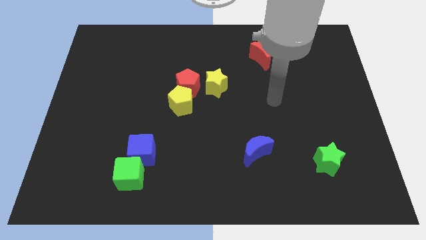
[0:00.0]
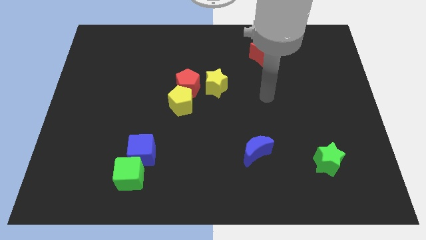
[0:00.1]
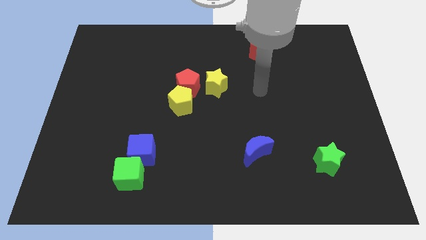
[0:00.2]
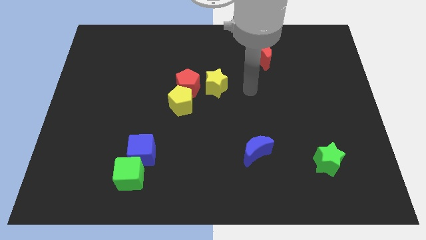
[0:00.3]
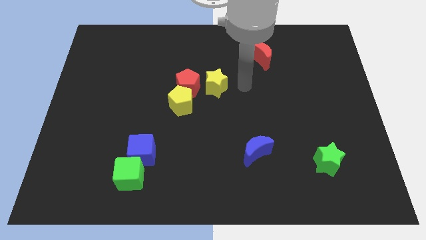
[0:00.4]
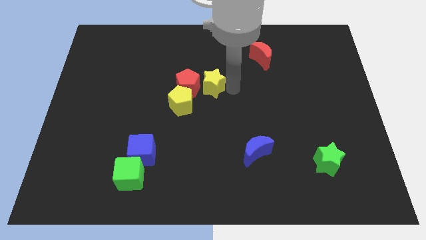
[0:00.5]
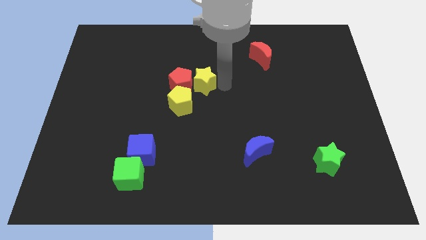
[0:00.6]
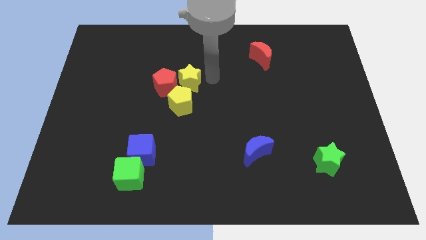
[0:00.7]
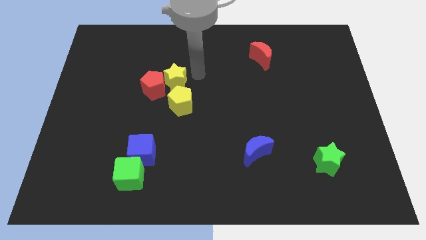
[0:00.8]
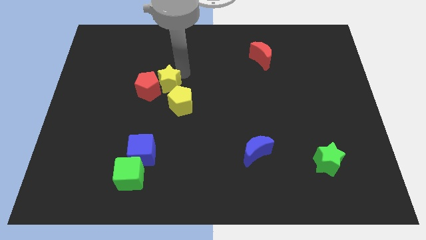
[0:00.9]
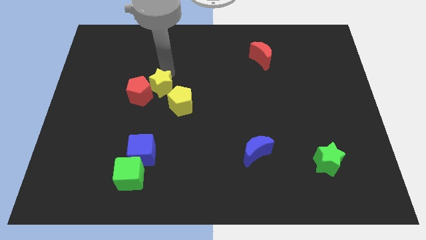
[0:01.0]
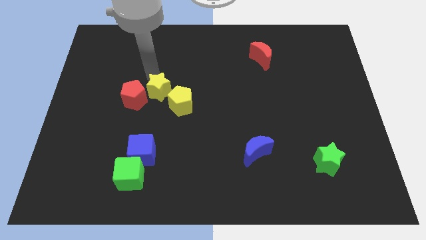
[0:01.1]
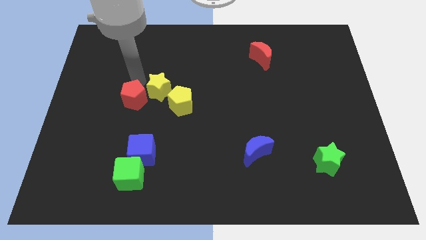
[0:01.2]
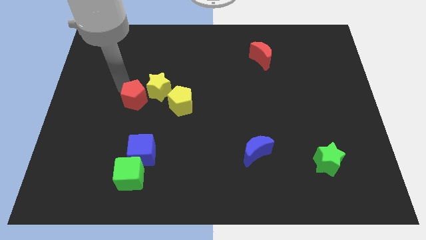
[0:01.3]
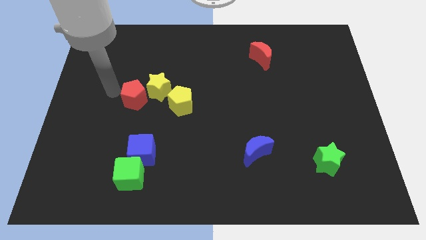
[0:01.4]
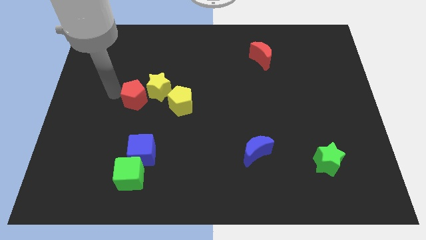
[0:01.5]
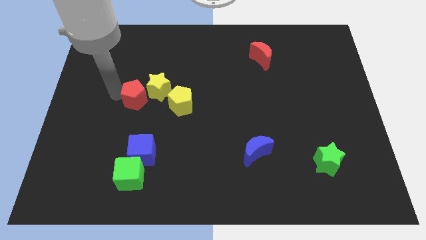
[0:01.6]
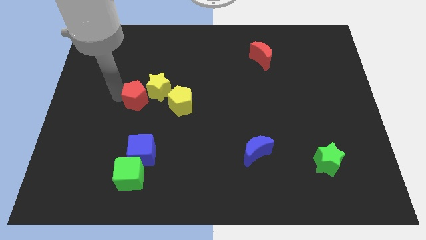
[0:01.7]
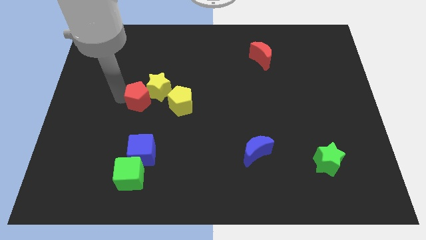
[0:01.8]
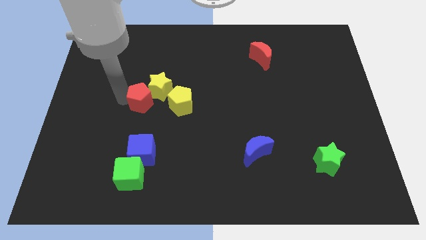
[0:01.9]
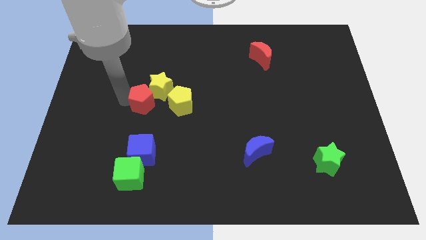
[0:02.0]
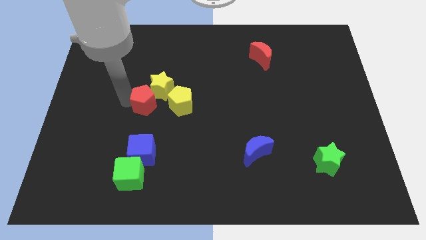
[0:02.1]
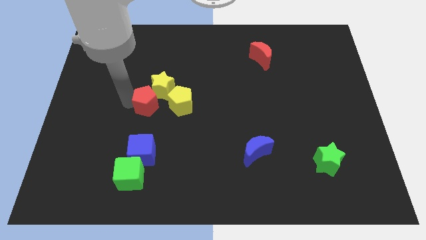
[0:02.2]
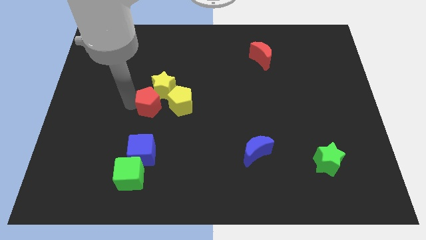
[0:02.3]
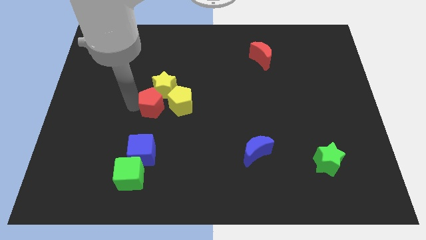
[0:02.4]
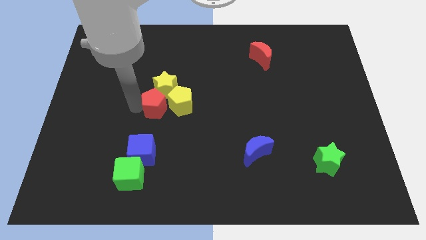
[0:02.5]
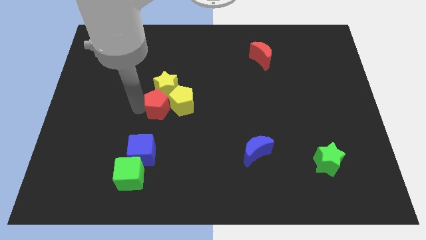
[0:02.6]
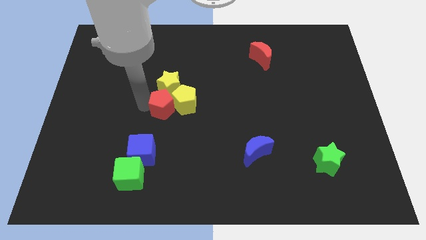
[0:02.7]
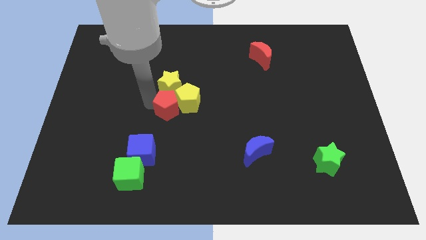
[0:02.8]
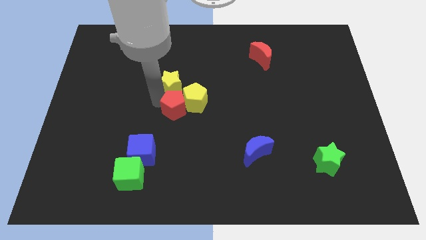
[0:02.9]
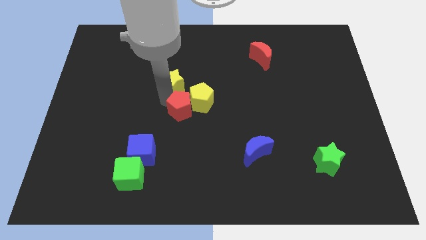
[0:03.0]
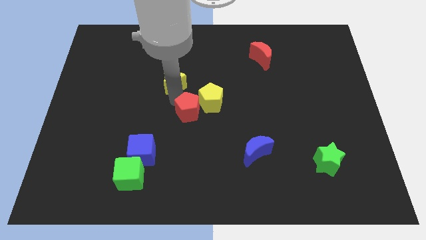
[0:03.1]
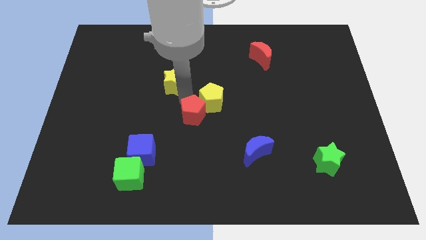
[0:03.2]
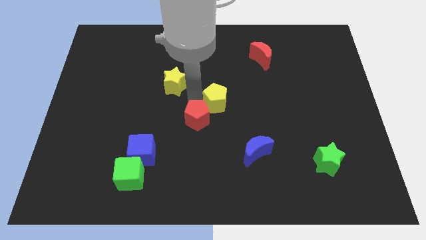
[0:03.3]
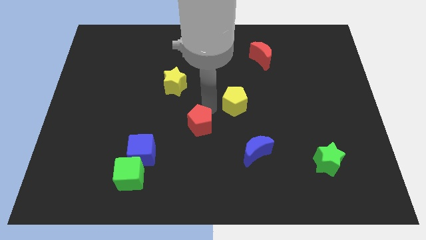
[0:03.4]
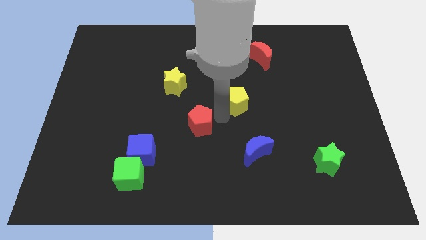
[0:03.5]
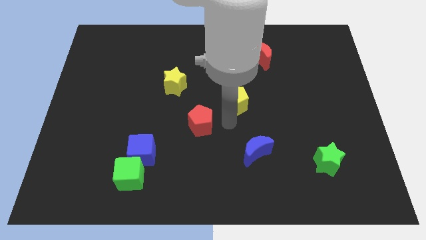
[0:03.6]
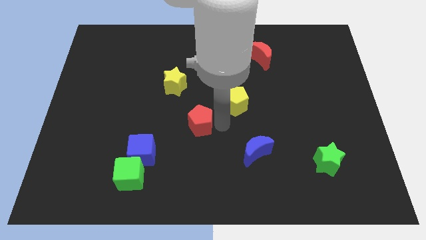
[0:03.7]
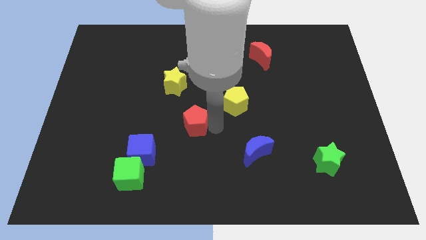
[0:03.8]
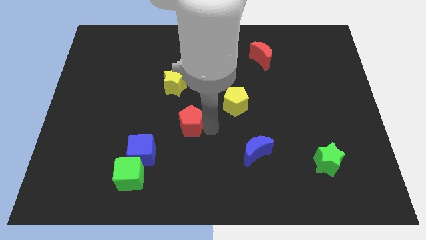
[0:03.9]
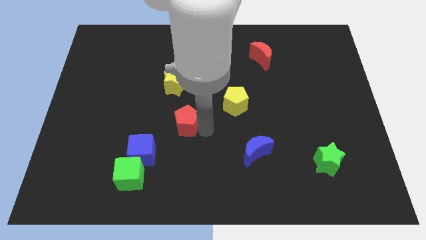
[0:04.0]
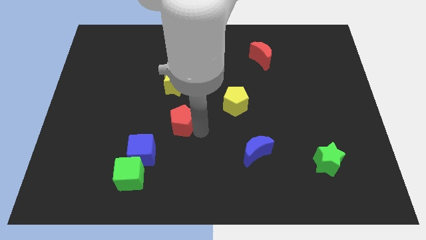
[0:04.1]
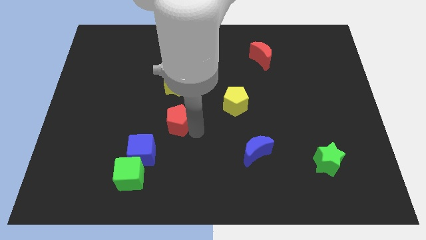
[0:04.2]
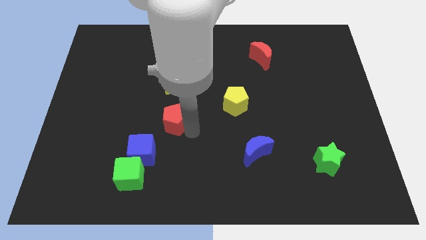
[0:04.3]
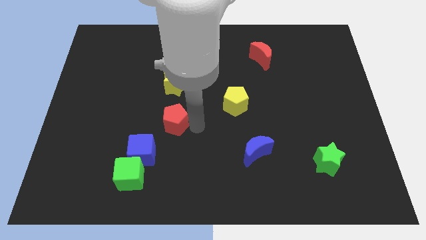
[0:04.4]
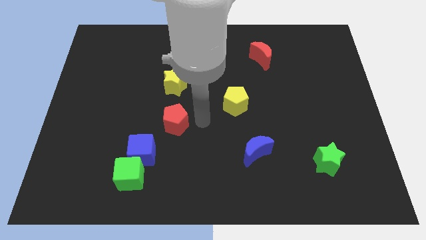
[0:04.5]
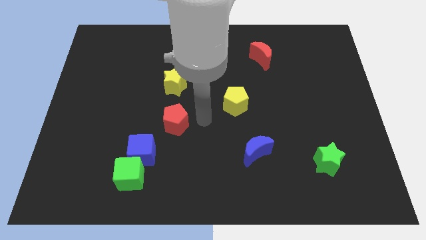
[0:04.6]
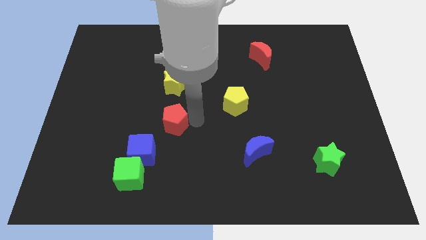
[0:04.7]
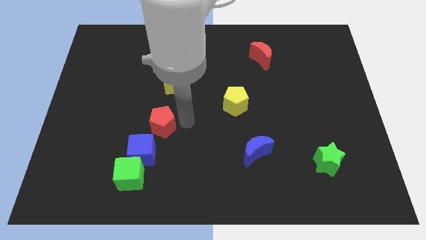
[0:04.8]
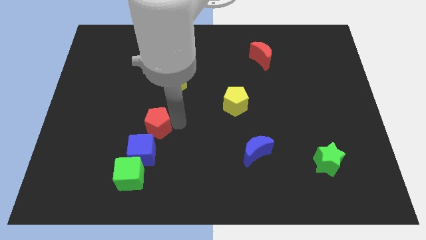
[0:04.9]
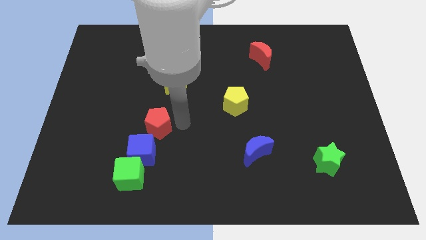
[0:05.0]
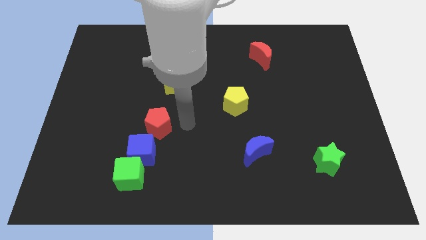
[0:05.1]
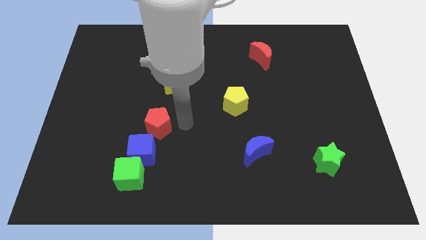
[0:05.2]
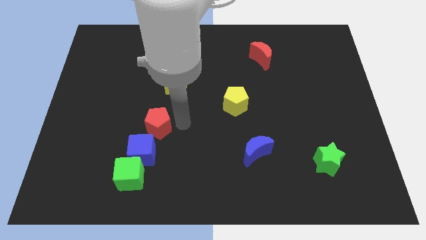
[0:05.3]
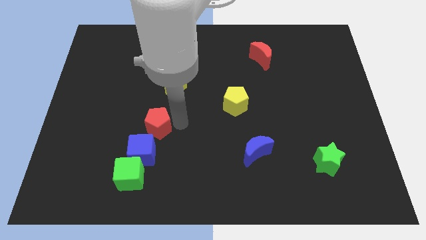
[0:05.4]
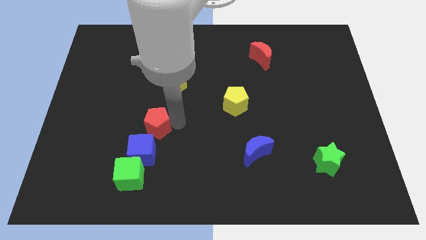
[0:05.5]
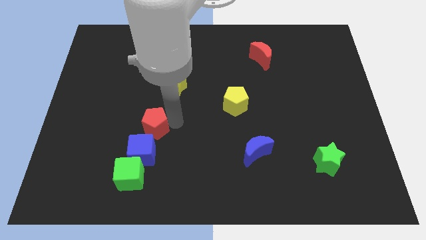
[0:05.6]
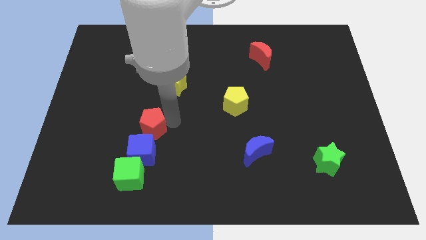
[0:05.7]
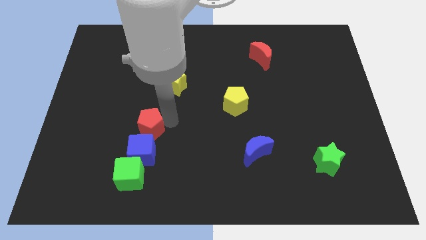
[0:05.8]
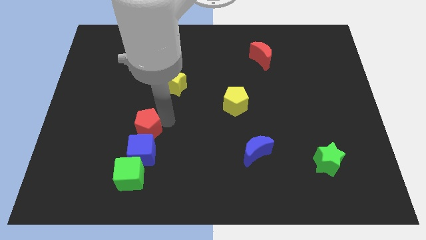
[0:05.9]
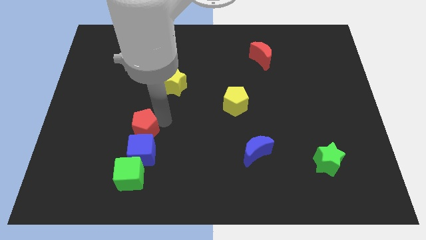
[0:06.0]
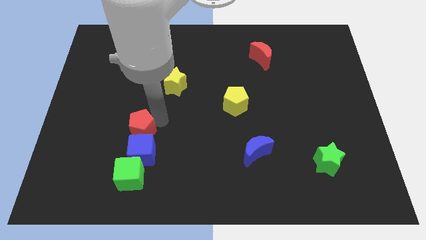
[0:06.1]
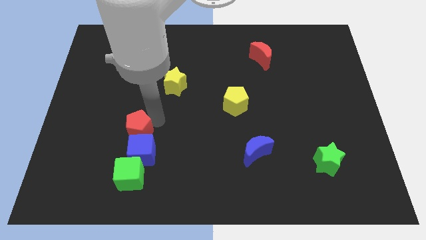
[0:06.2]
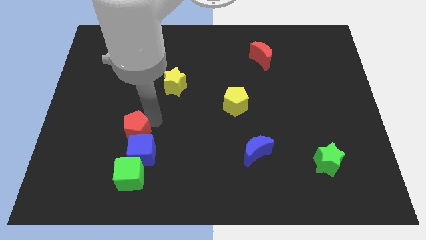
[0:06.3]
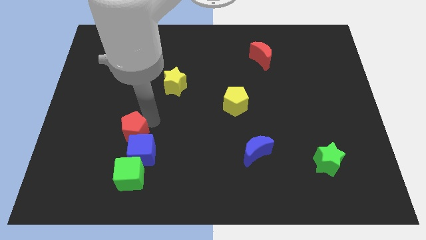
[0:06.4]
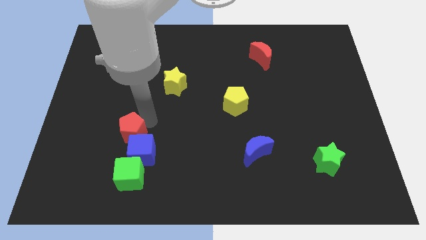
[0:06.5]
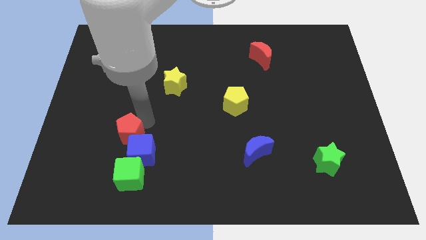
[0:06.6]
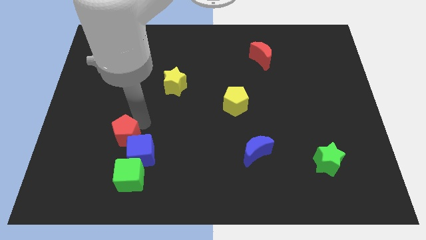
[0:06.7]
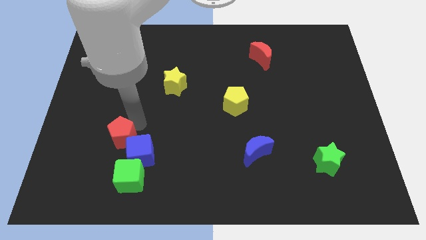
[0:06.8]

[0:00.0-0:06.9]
slide the red pentagon down and left

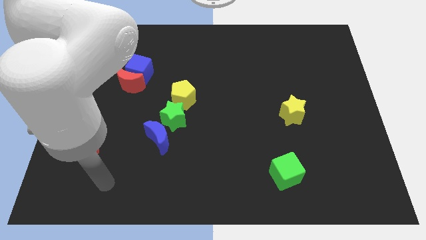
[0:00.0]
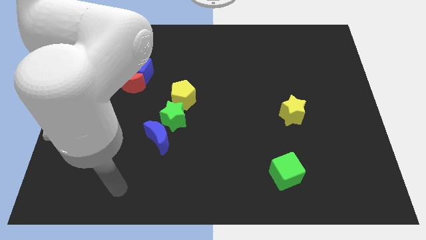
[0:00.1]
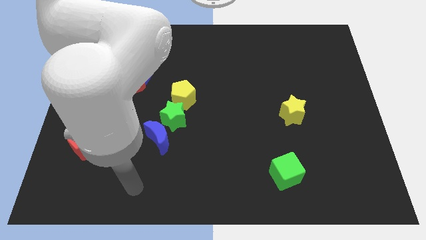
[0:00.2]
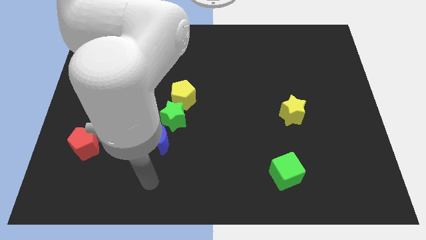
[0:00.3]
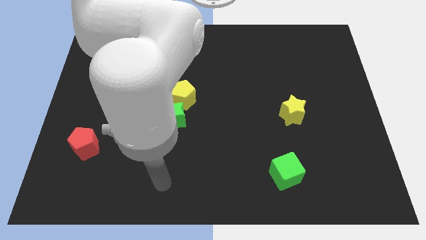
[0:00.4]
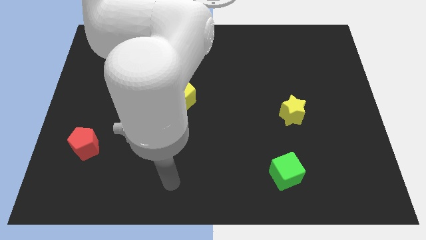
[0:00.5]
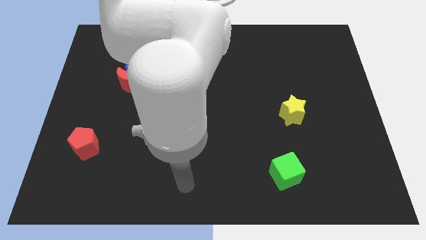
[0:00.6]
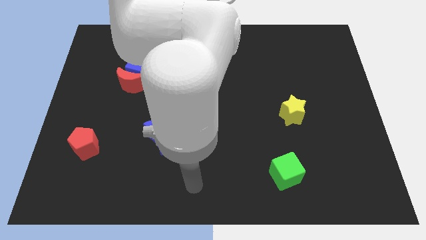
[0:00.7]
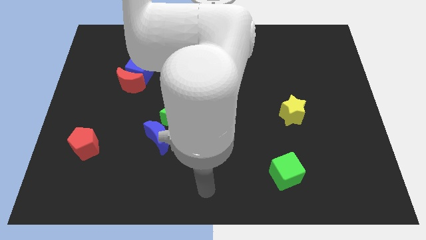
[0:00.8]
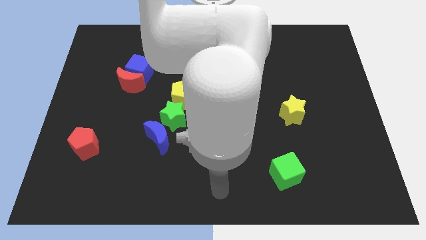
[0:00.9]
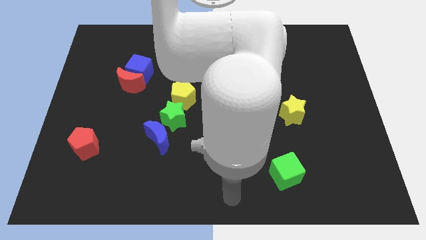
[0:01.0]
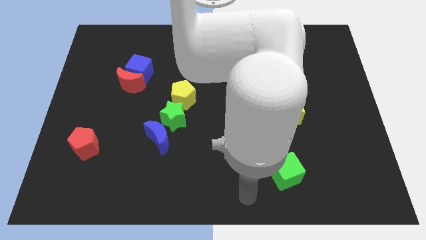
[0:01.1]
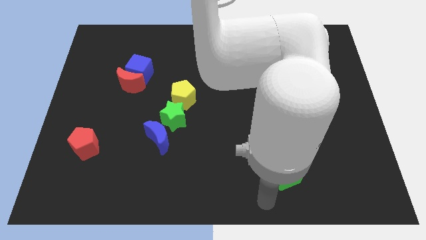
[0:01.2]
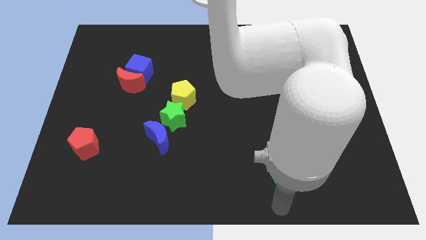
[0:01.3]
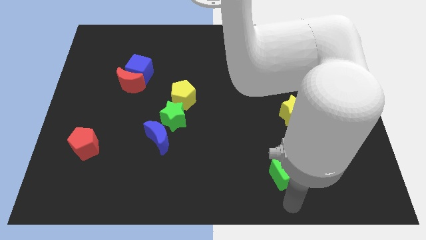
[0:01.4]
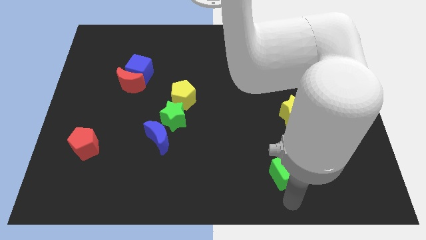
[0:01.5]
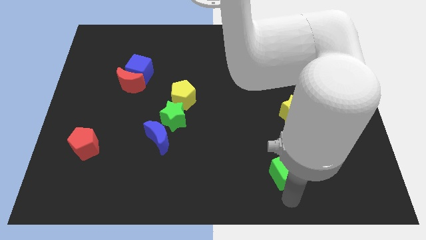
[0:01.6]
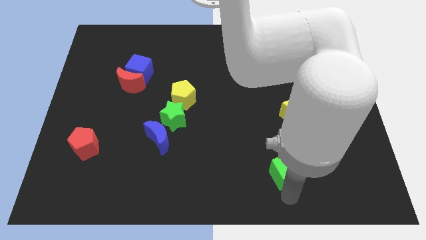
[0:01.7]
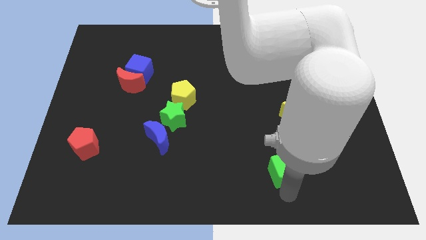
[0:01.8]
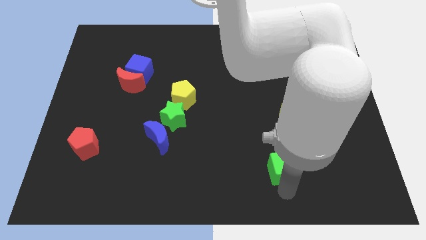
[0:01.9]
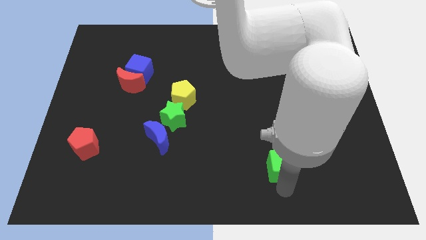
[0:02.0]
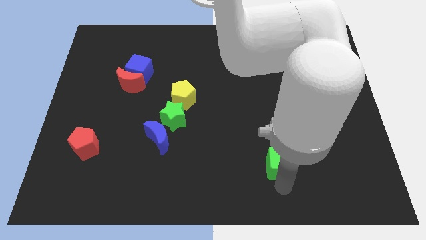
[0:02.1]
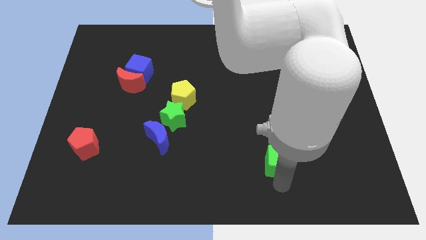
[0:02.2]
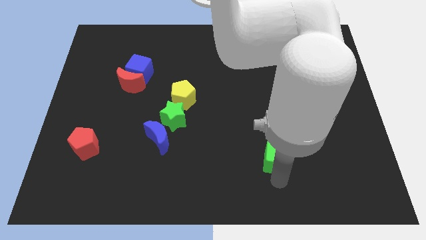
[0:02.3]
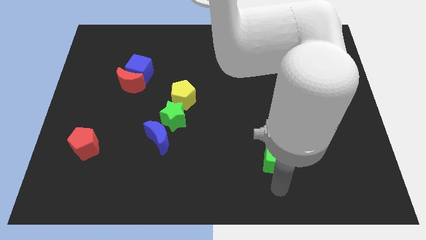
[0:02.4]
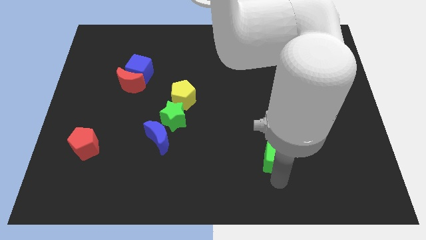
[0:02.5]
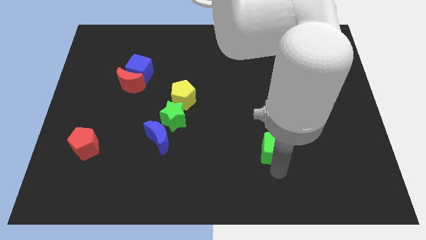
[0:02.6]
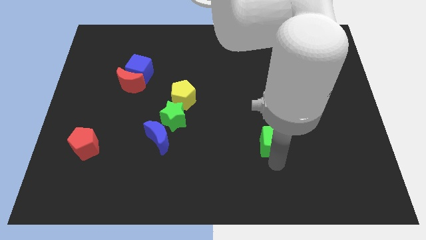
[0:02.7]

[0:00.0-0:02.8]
slightly slide the green cube upwards
